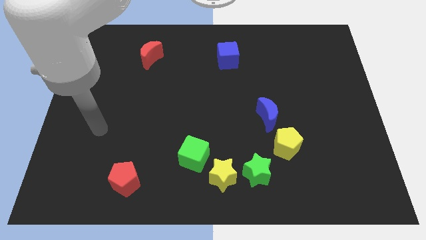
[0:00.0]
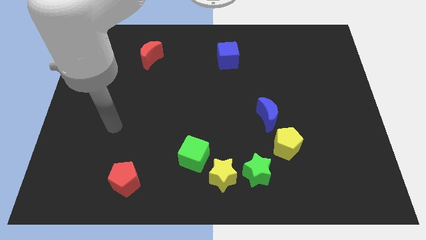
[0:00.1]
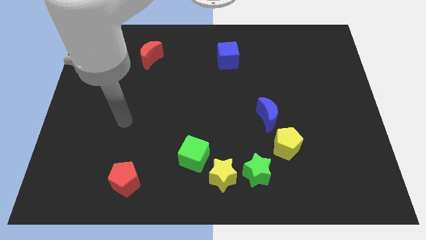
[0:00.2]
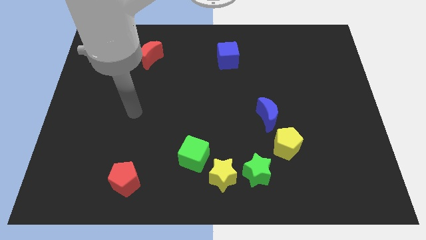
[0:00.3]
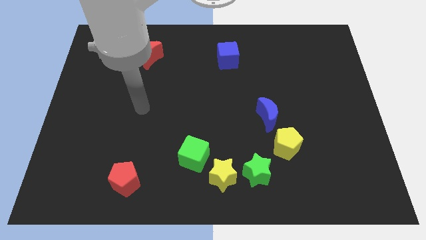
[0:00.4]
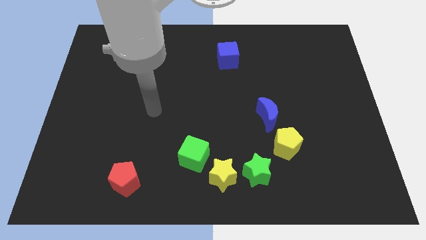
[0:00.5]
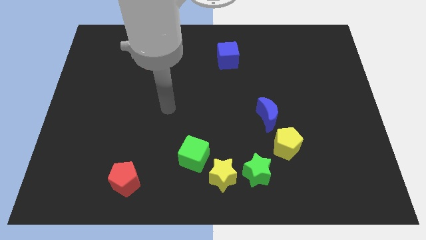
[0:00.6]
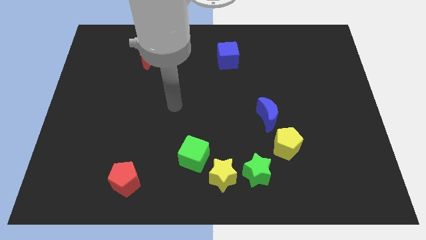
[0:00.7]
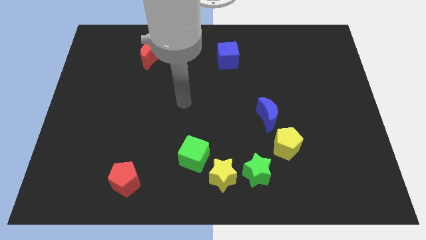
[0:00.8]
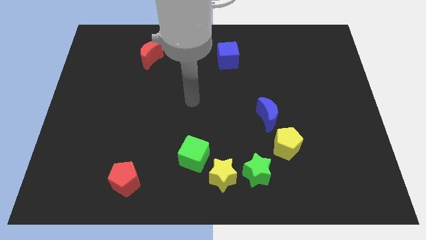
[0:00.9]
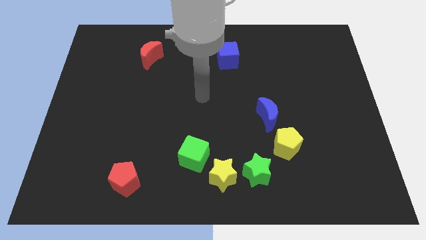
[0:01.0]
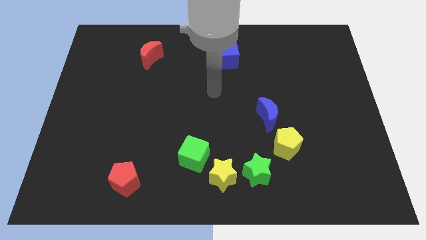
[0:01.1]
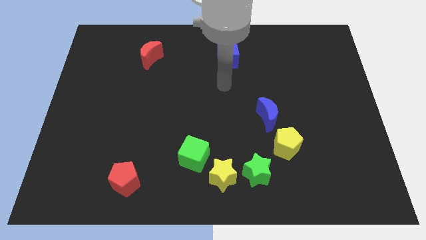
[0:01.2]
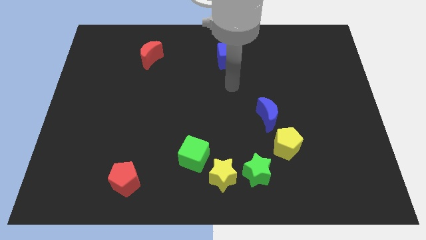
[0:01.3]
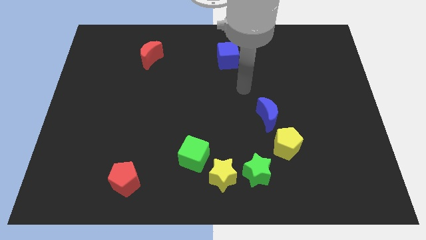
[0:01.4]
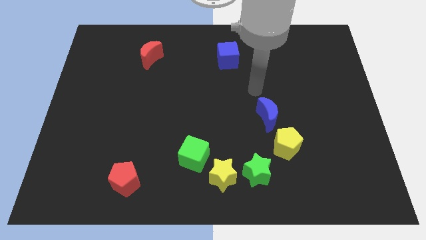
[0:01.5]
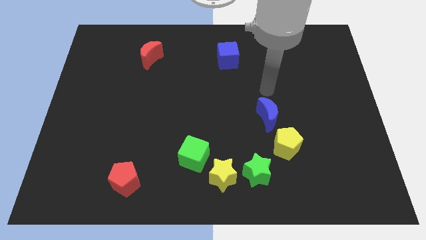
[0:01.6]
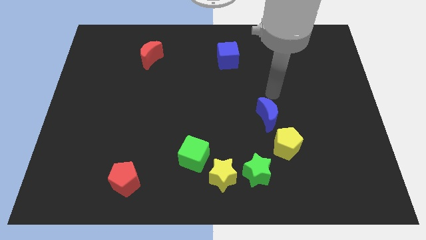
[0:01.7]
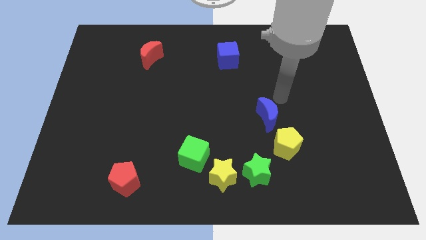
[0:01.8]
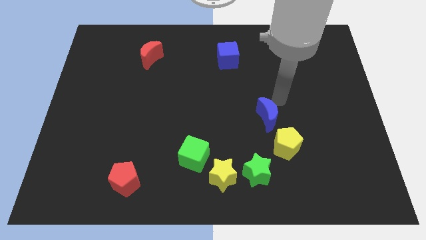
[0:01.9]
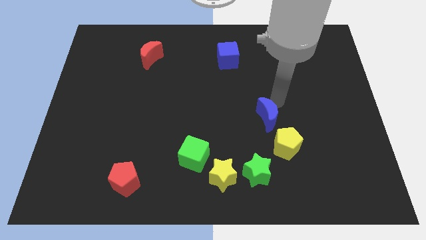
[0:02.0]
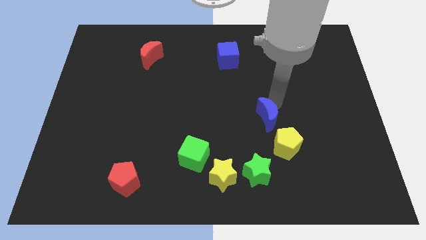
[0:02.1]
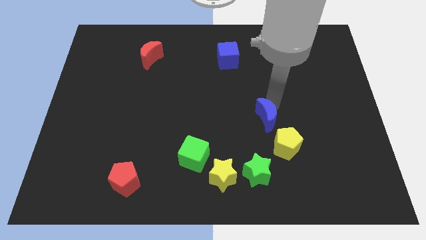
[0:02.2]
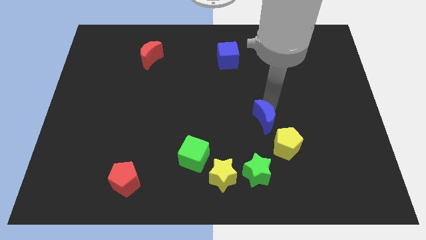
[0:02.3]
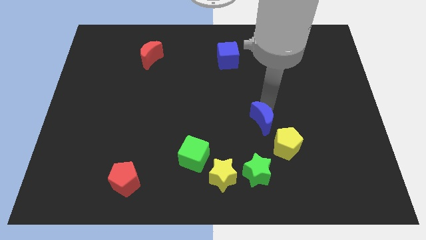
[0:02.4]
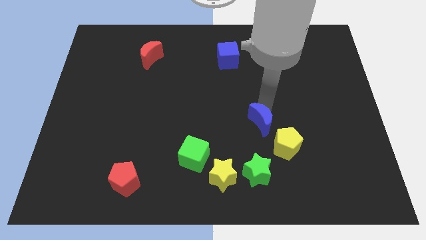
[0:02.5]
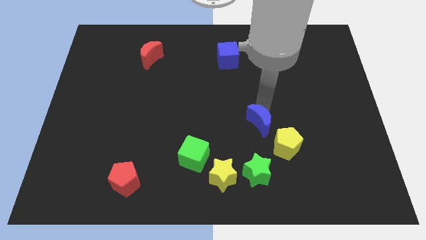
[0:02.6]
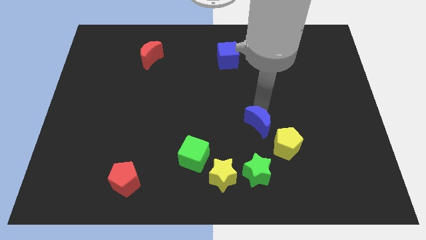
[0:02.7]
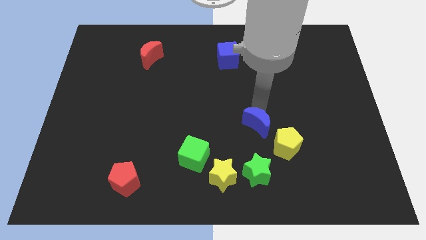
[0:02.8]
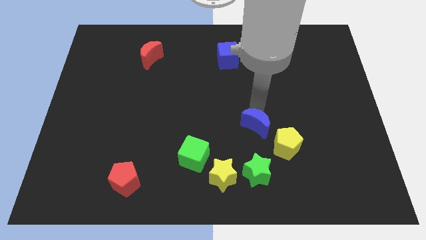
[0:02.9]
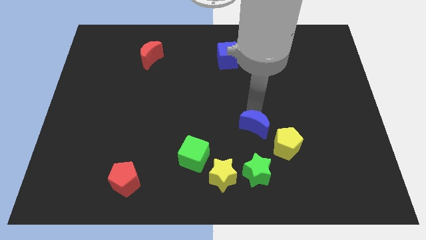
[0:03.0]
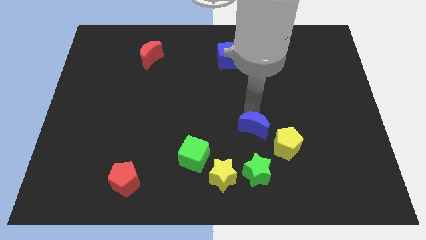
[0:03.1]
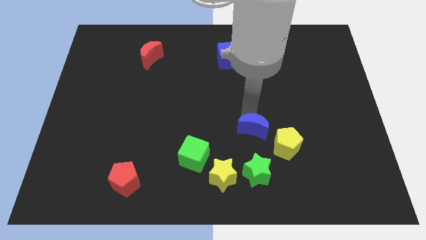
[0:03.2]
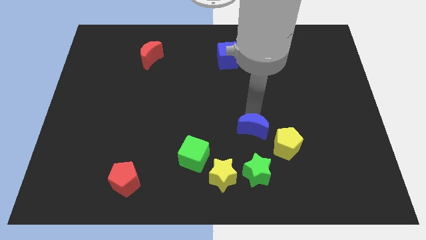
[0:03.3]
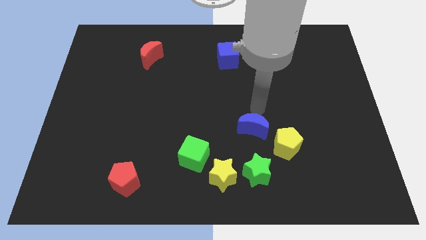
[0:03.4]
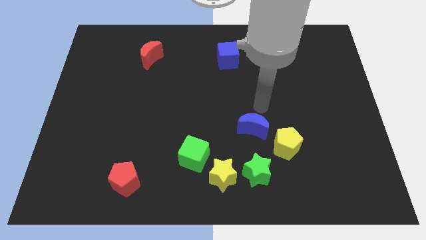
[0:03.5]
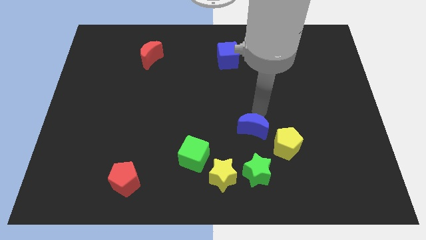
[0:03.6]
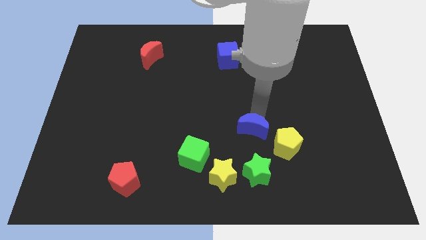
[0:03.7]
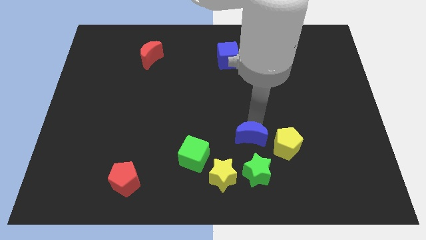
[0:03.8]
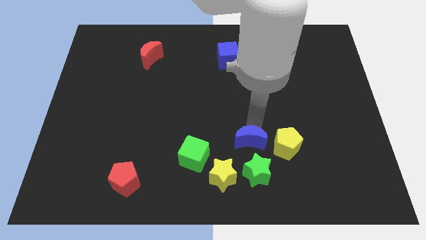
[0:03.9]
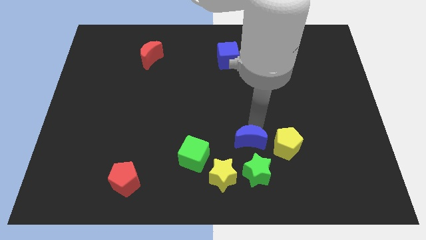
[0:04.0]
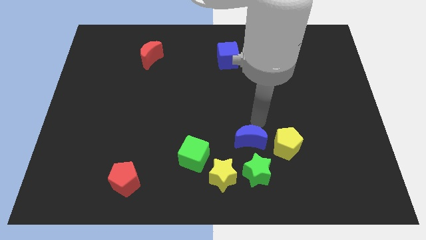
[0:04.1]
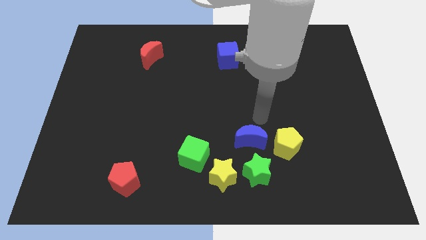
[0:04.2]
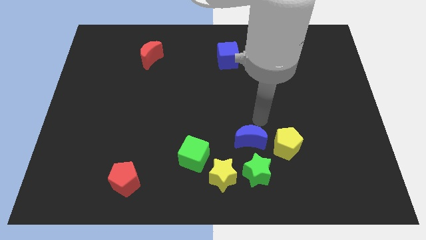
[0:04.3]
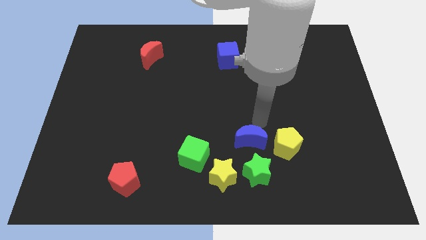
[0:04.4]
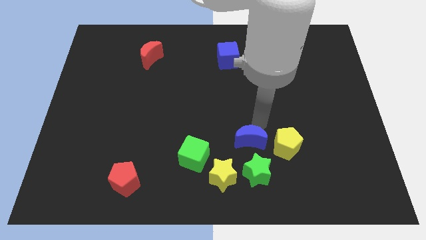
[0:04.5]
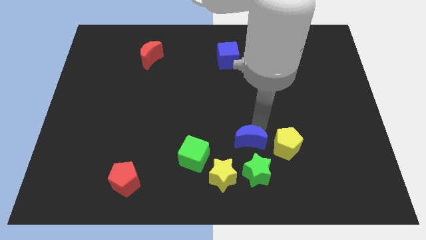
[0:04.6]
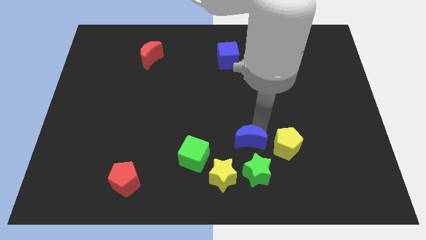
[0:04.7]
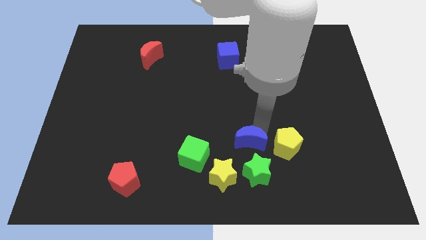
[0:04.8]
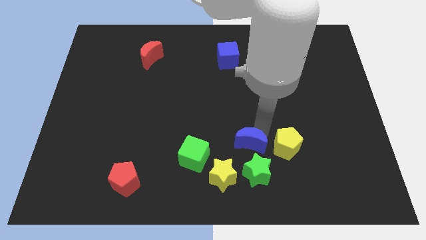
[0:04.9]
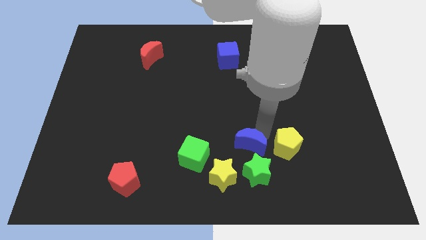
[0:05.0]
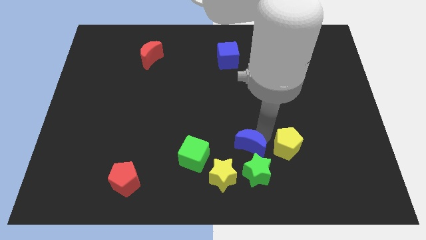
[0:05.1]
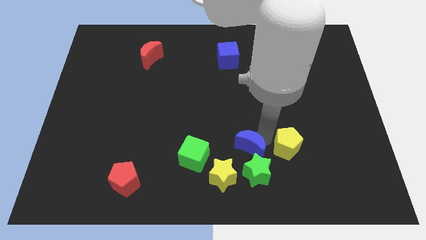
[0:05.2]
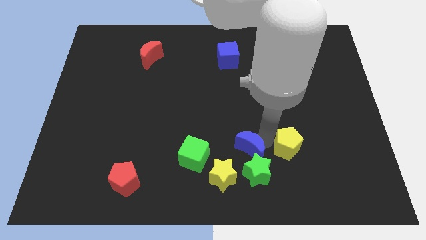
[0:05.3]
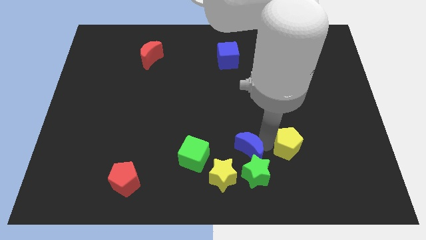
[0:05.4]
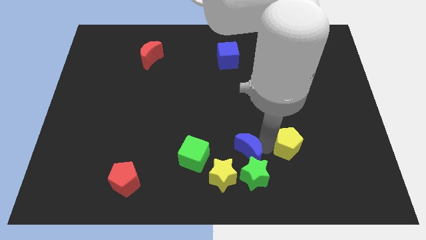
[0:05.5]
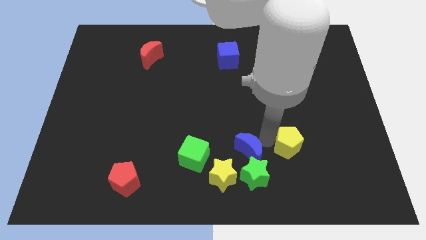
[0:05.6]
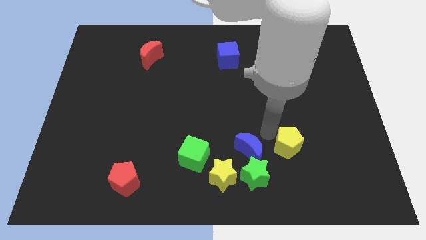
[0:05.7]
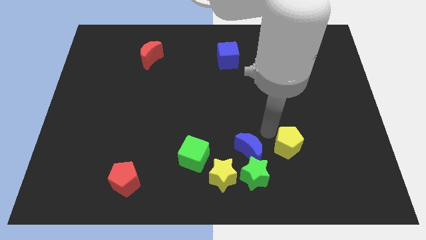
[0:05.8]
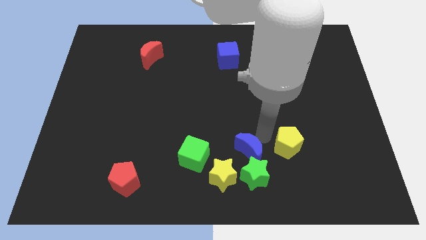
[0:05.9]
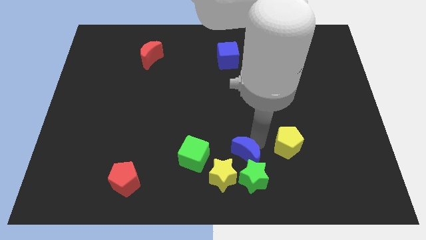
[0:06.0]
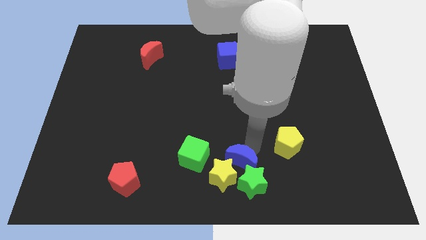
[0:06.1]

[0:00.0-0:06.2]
slide the blue moon towards the yellow star
